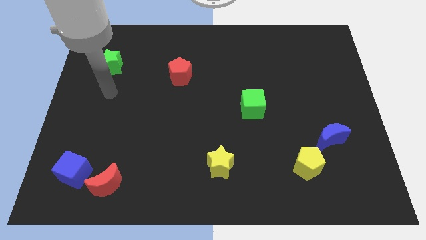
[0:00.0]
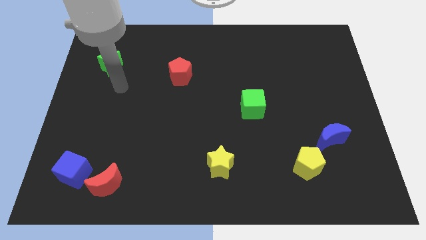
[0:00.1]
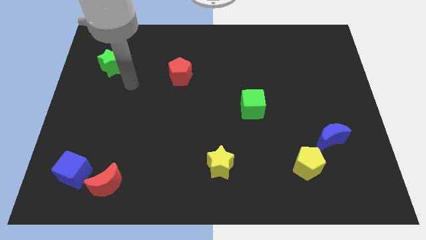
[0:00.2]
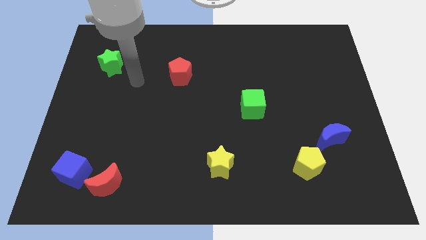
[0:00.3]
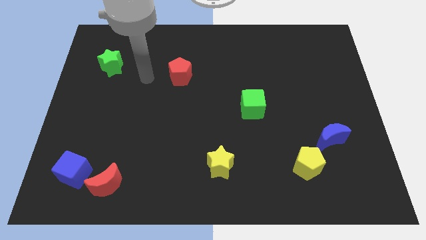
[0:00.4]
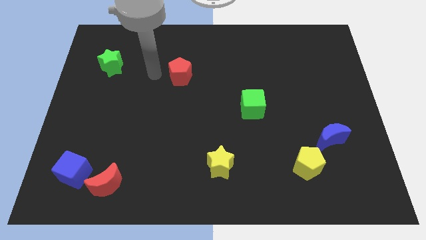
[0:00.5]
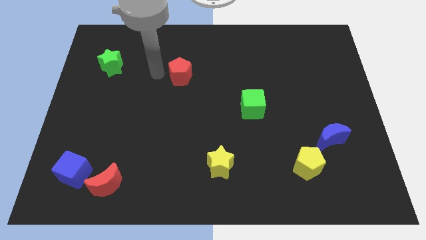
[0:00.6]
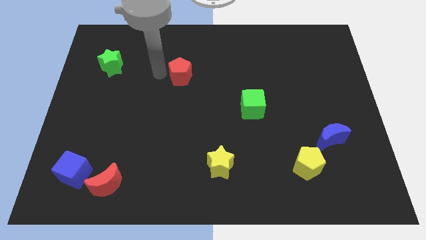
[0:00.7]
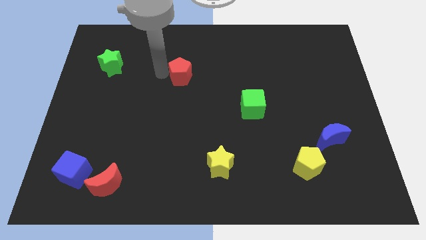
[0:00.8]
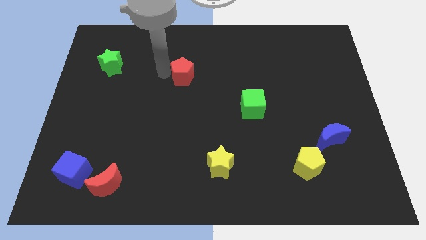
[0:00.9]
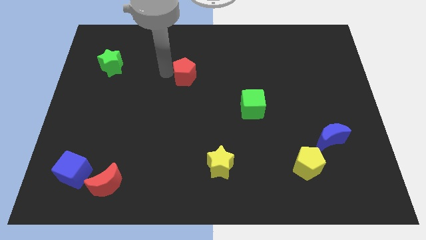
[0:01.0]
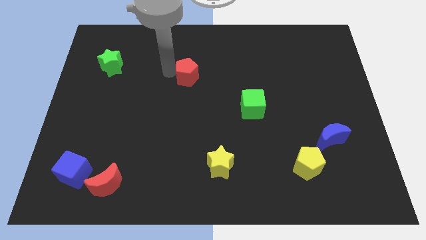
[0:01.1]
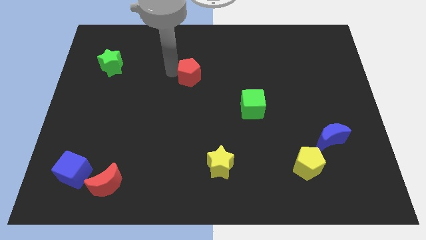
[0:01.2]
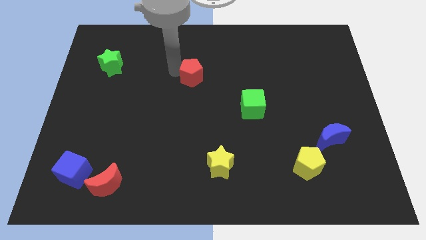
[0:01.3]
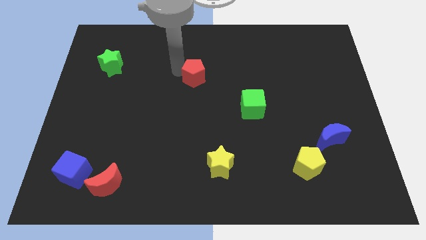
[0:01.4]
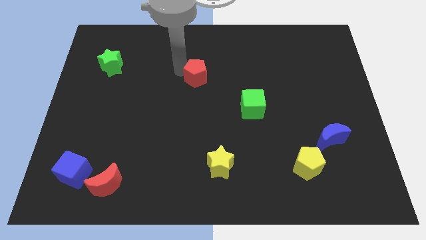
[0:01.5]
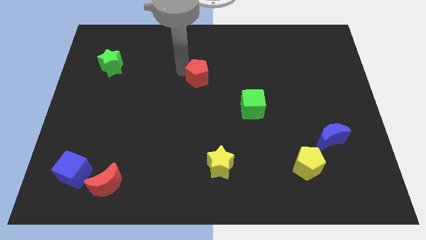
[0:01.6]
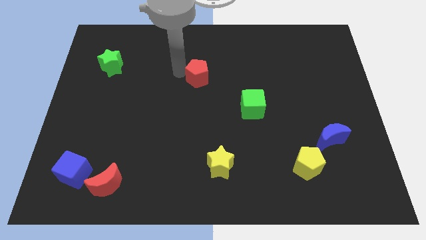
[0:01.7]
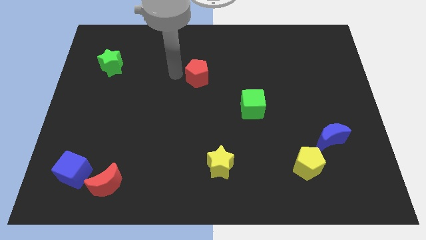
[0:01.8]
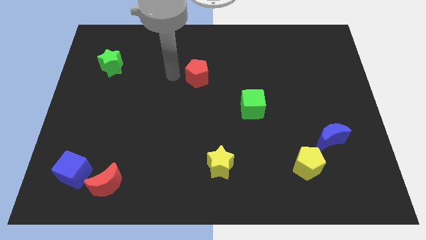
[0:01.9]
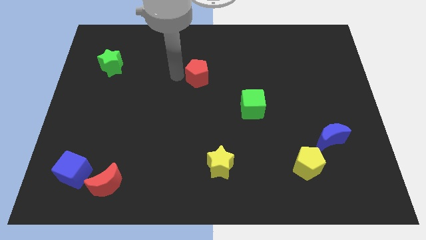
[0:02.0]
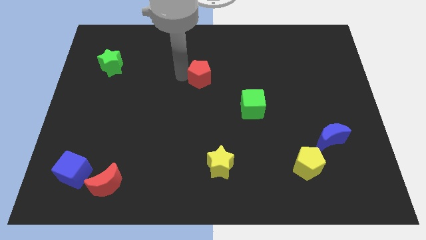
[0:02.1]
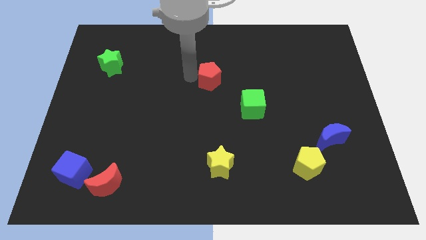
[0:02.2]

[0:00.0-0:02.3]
slide the red pentagon right somewhat

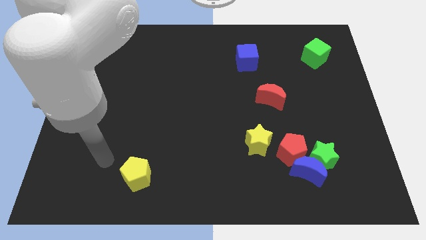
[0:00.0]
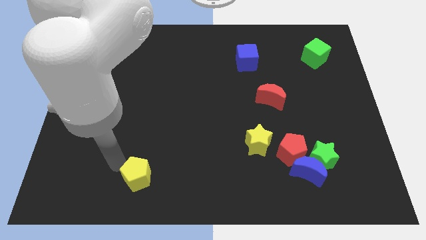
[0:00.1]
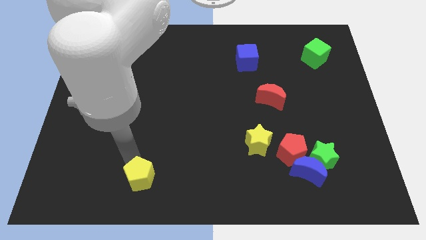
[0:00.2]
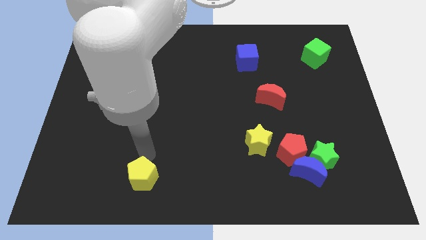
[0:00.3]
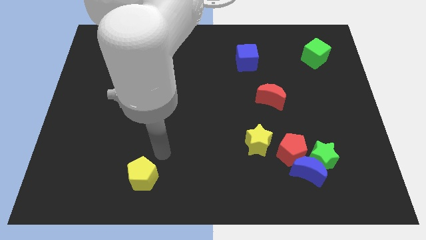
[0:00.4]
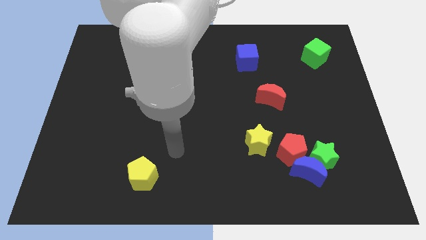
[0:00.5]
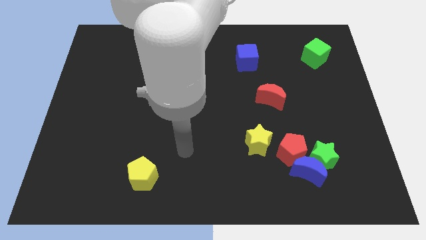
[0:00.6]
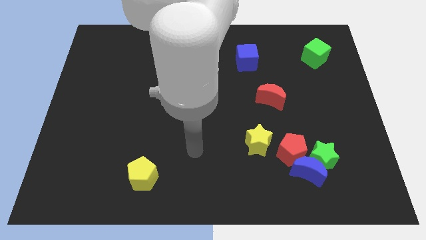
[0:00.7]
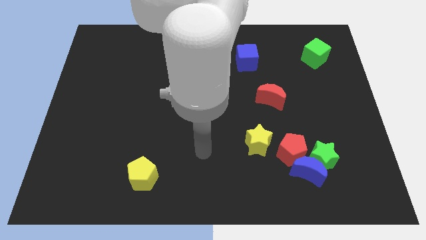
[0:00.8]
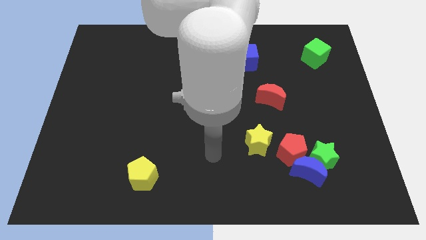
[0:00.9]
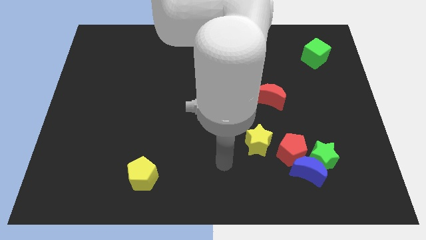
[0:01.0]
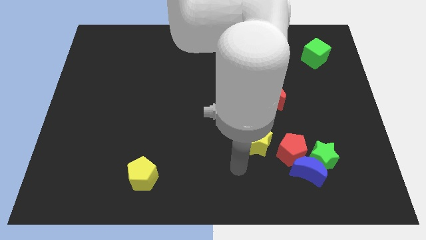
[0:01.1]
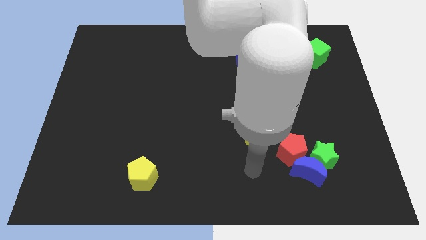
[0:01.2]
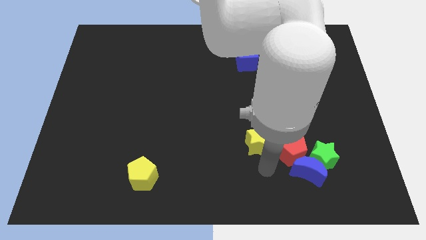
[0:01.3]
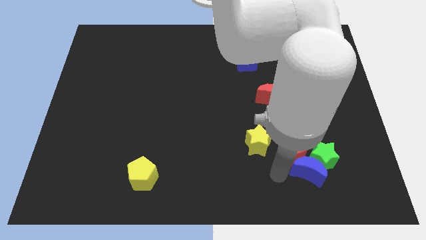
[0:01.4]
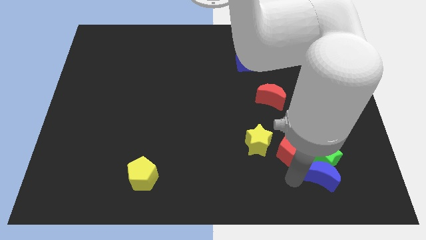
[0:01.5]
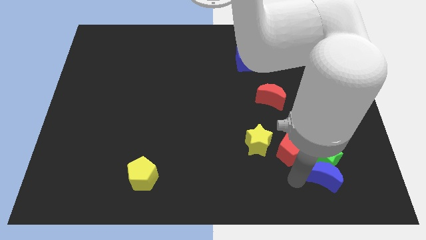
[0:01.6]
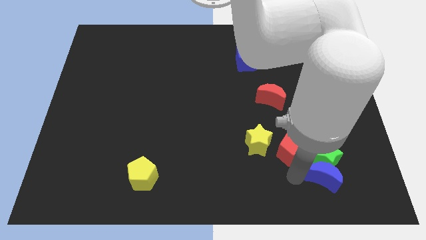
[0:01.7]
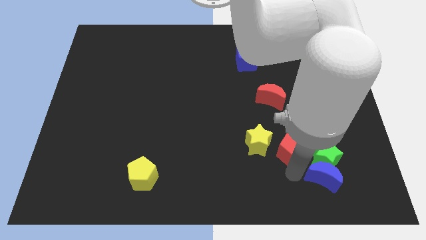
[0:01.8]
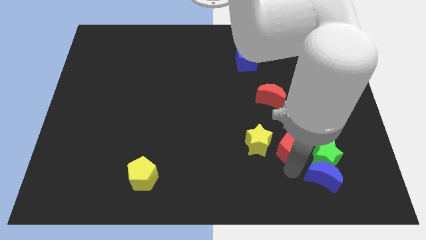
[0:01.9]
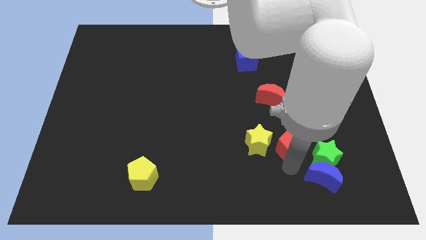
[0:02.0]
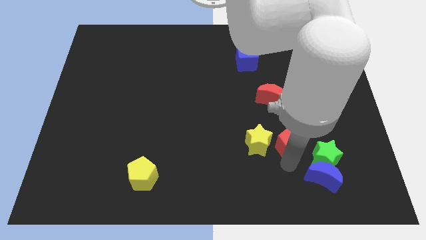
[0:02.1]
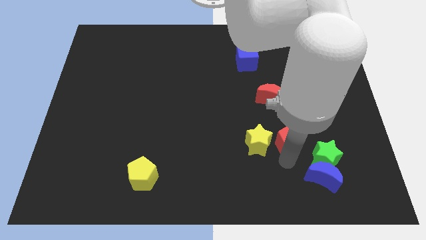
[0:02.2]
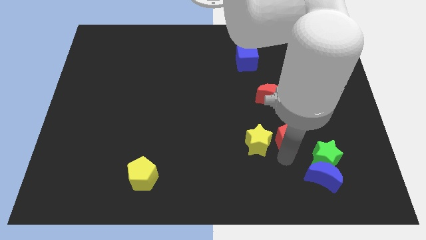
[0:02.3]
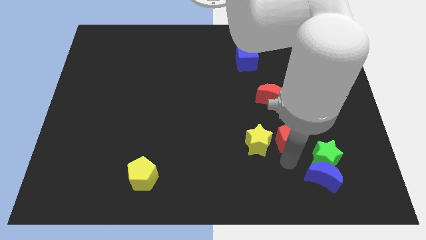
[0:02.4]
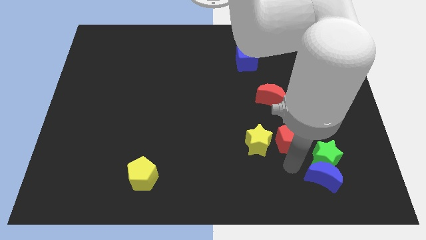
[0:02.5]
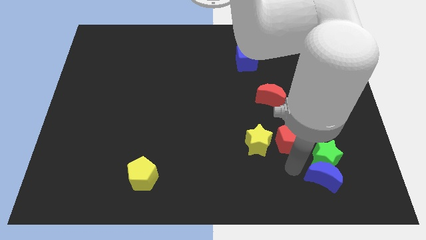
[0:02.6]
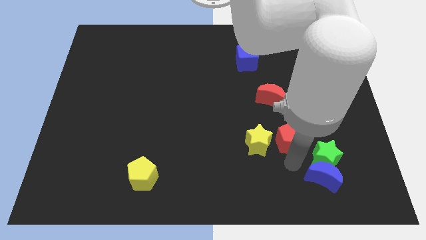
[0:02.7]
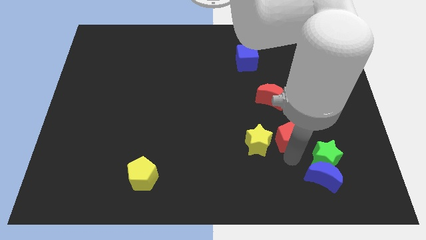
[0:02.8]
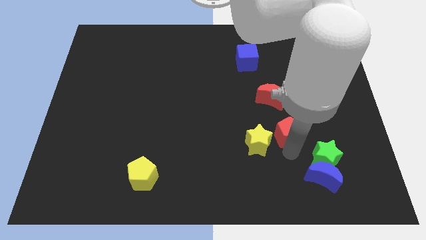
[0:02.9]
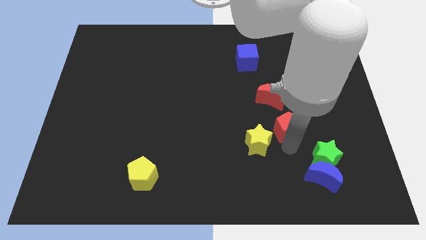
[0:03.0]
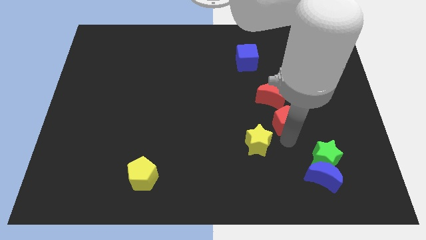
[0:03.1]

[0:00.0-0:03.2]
push the red pentagon up a bit

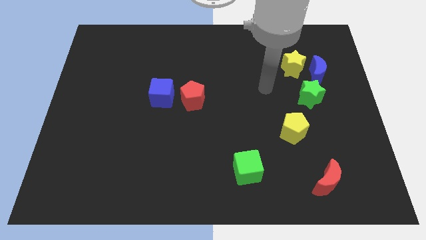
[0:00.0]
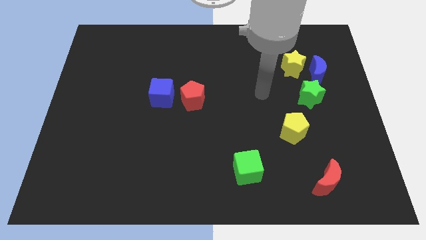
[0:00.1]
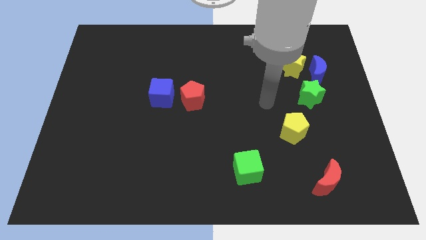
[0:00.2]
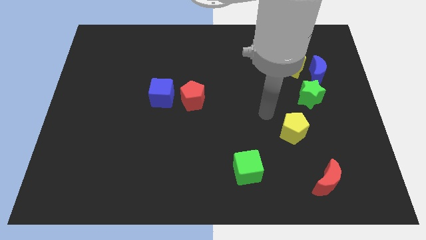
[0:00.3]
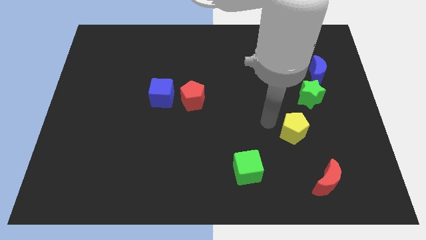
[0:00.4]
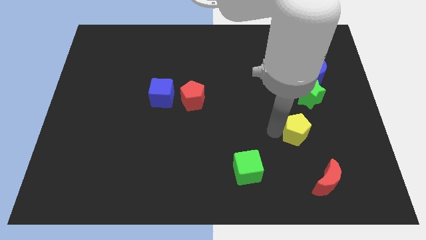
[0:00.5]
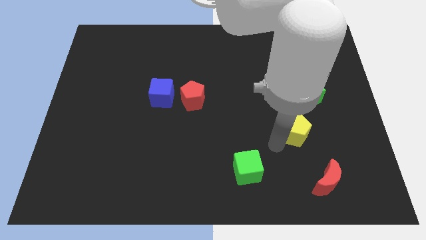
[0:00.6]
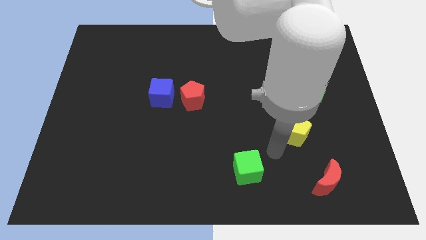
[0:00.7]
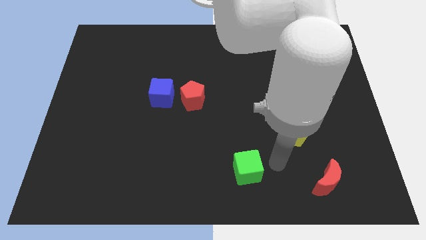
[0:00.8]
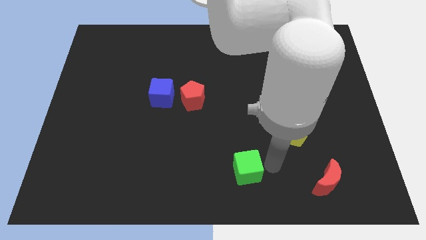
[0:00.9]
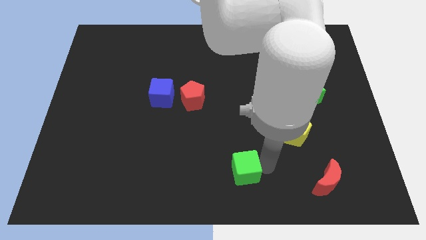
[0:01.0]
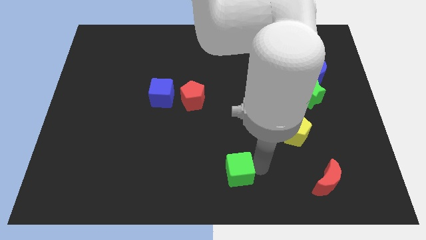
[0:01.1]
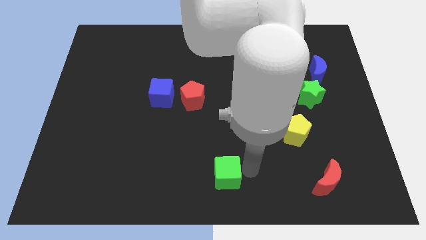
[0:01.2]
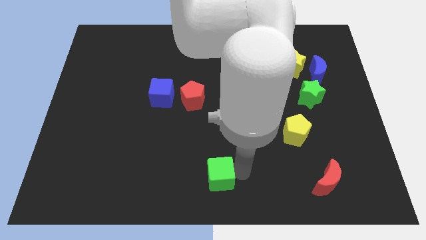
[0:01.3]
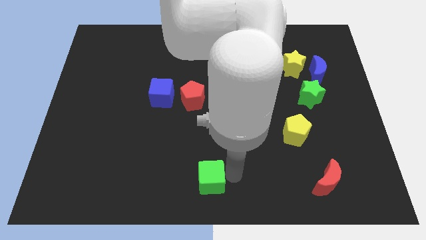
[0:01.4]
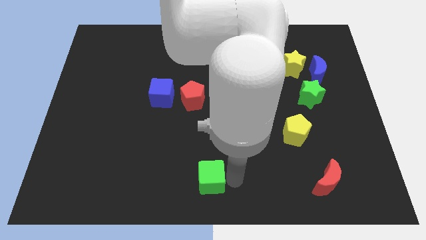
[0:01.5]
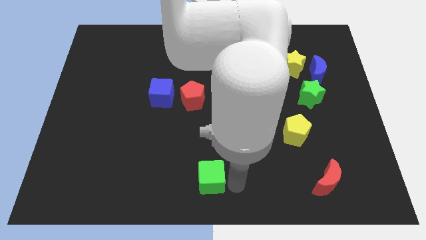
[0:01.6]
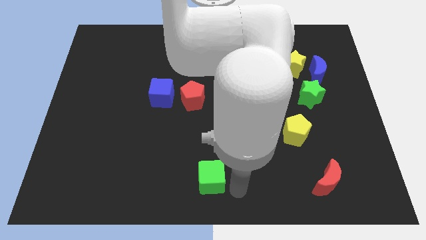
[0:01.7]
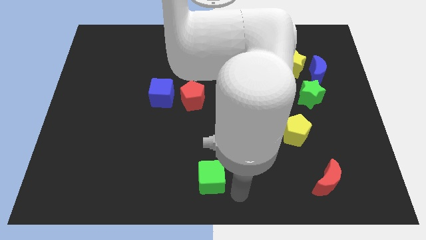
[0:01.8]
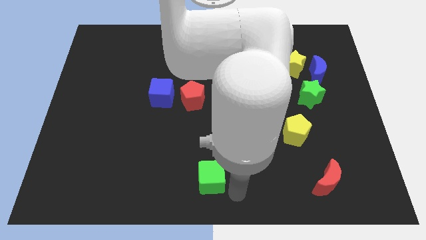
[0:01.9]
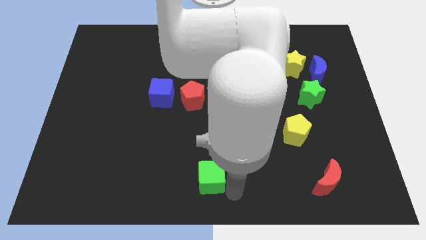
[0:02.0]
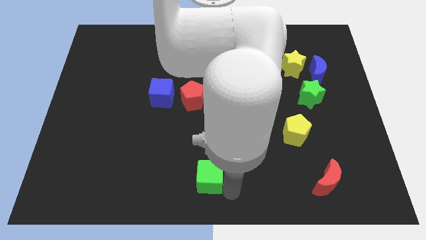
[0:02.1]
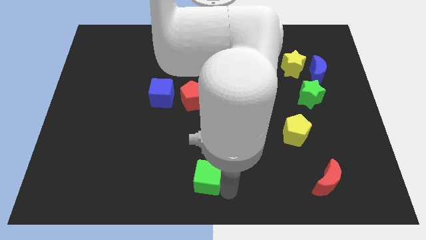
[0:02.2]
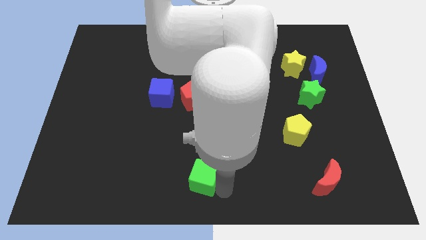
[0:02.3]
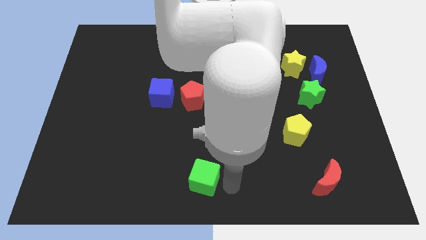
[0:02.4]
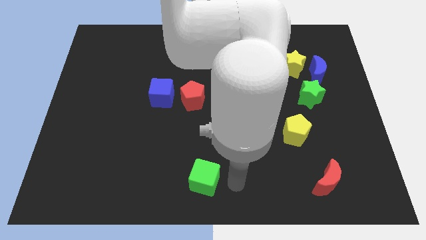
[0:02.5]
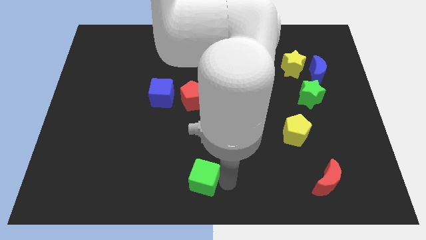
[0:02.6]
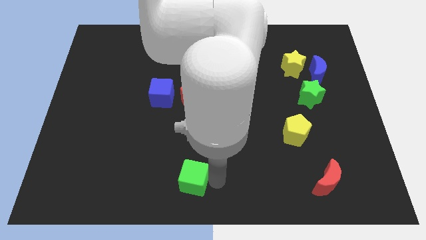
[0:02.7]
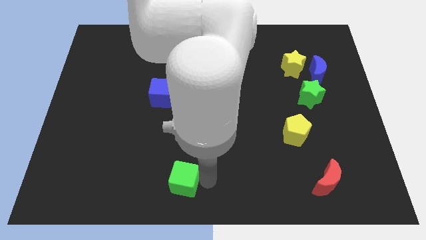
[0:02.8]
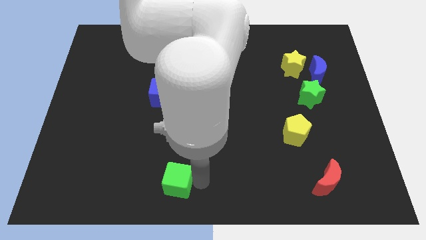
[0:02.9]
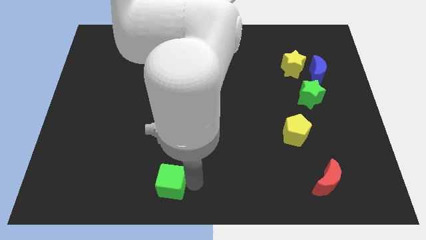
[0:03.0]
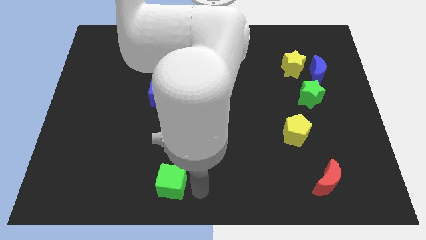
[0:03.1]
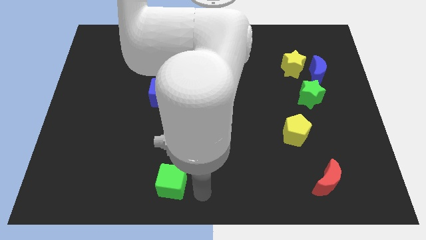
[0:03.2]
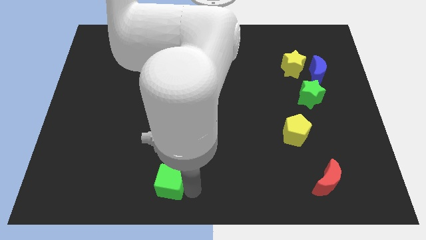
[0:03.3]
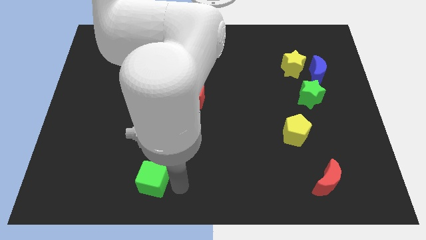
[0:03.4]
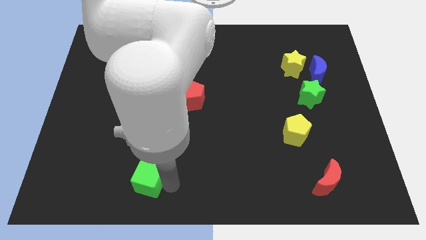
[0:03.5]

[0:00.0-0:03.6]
move the green cube left
